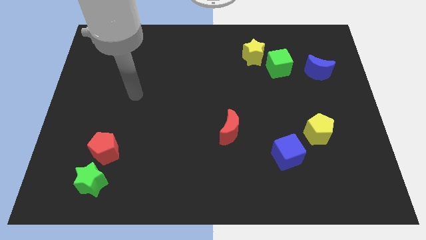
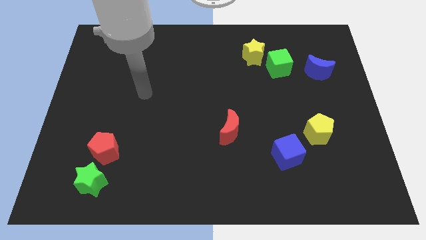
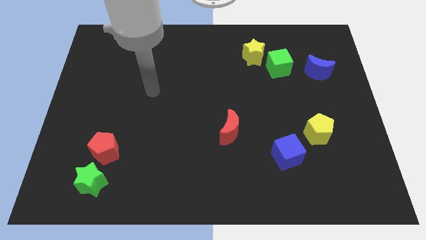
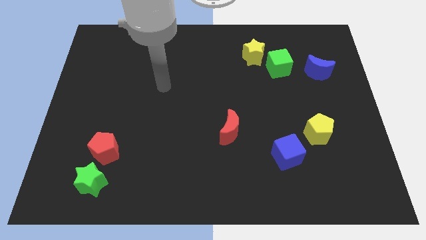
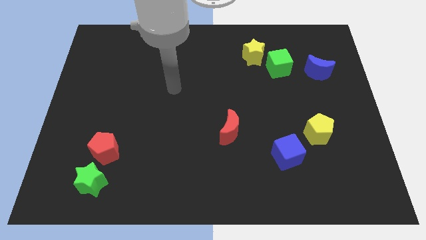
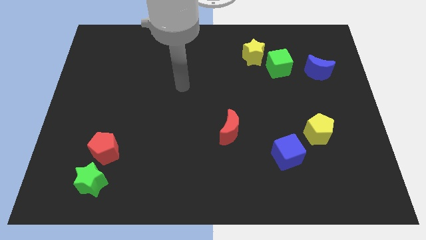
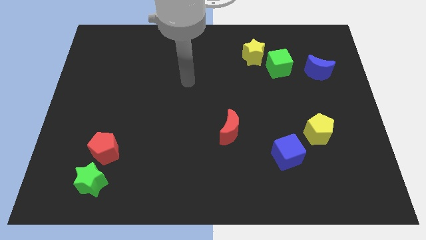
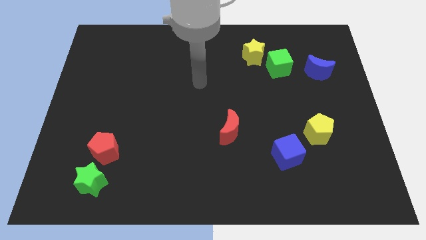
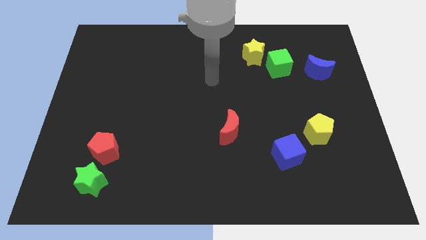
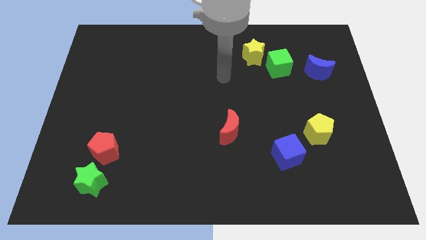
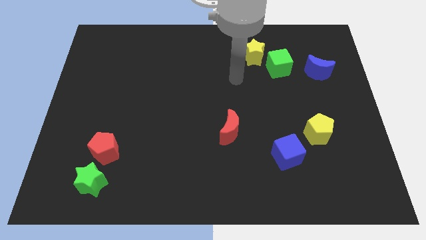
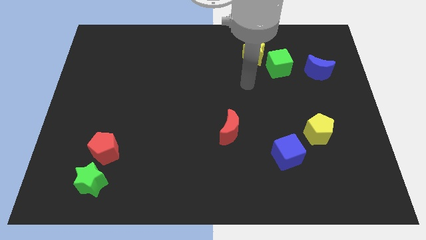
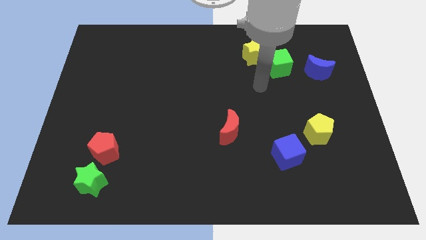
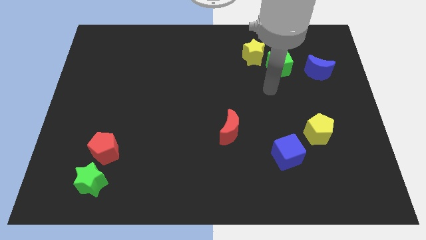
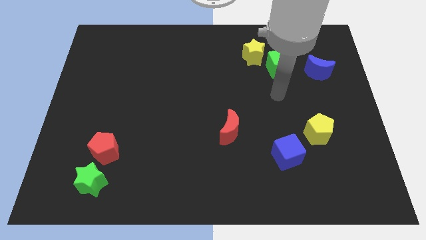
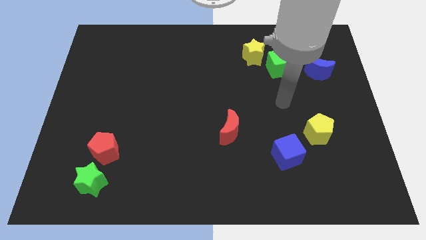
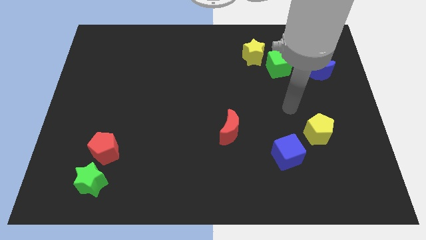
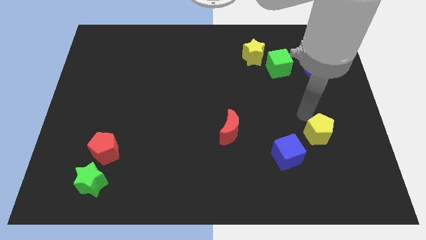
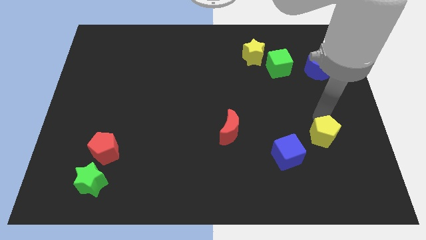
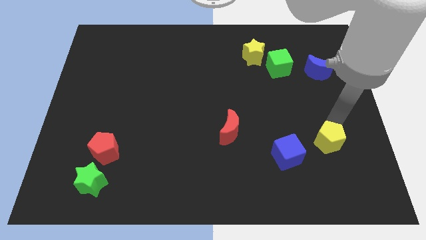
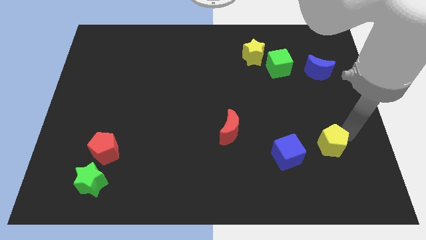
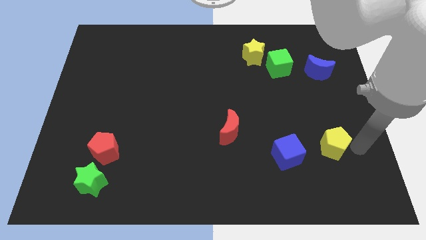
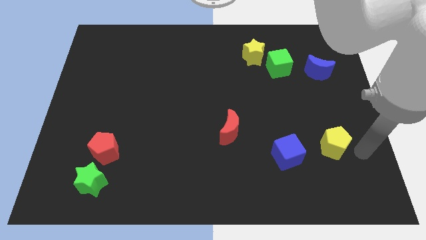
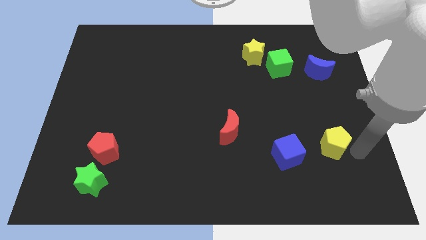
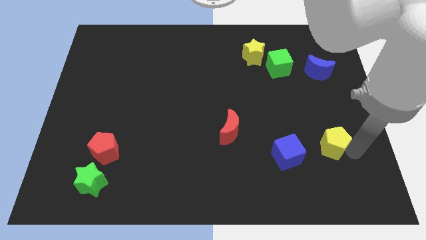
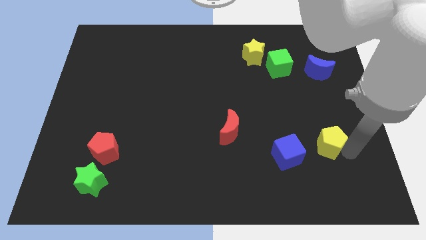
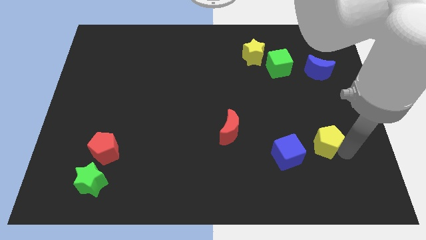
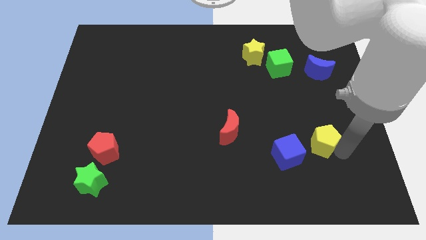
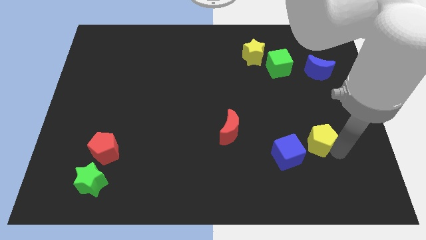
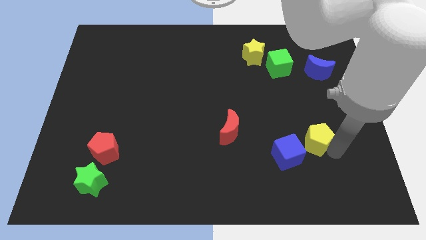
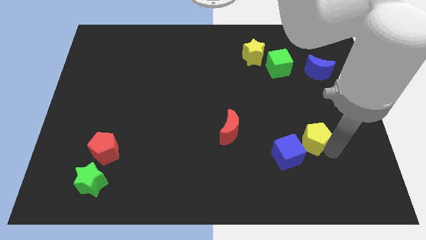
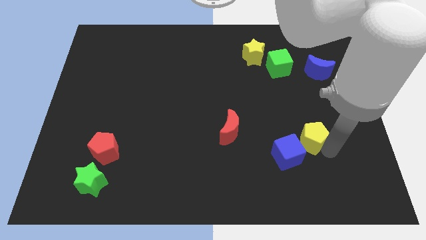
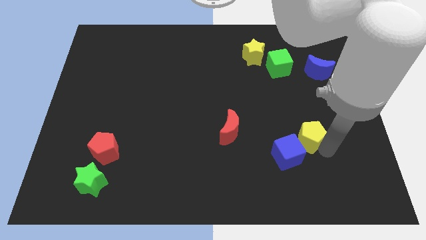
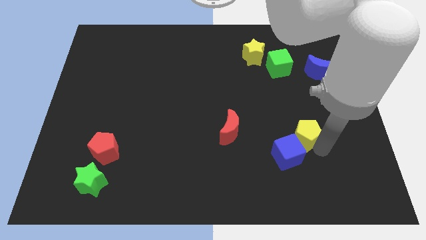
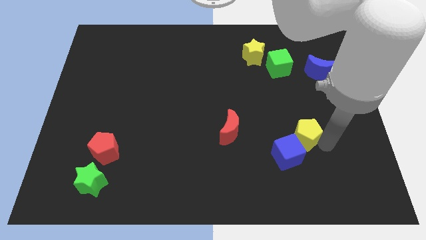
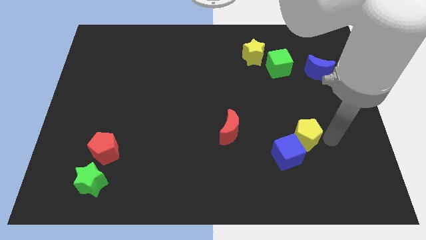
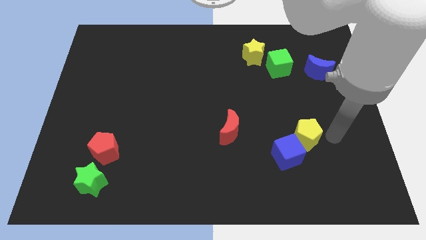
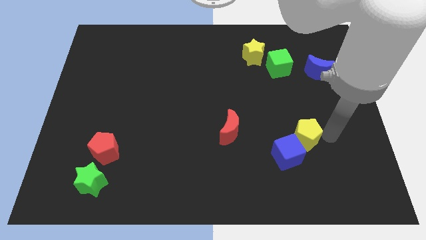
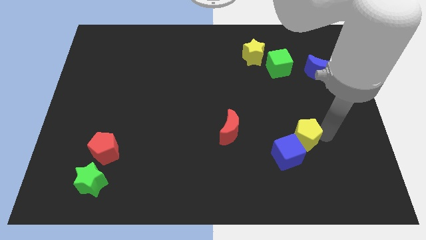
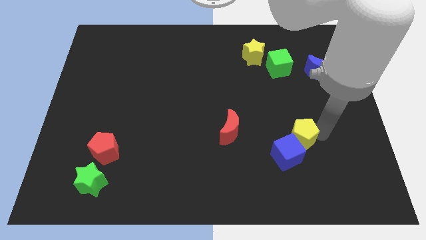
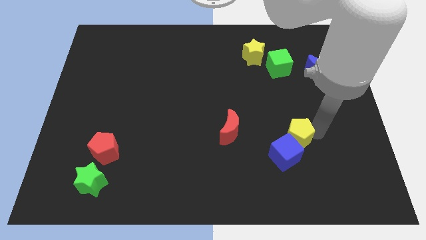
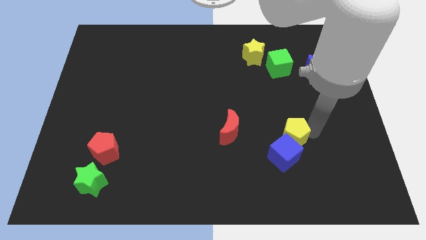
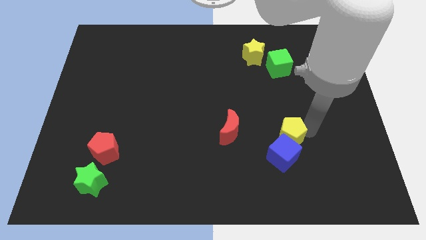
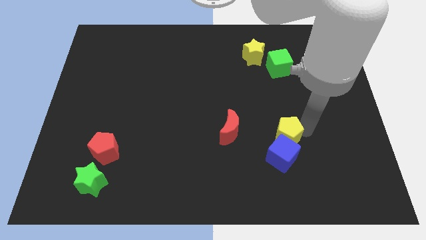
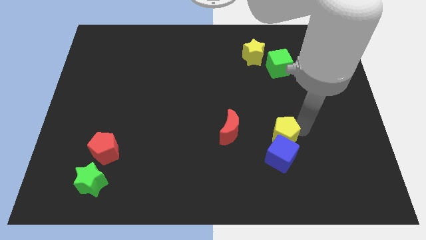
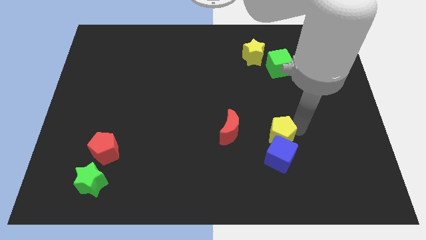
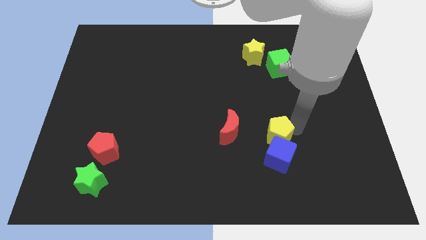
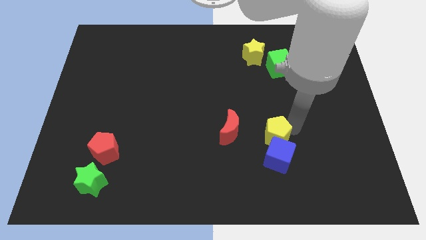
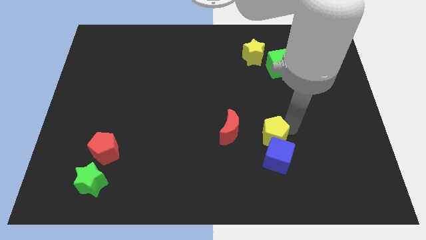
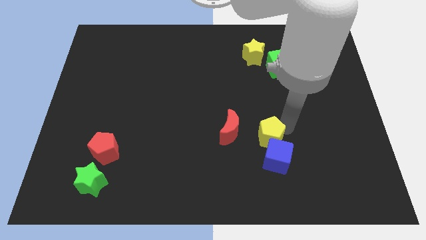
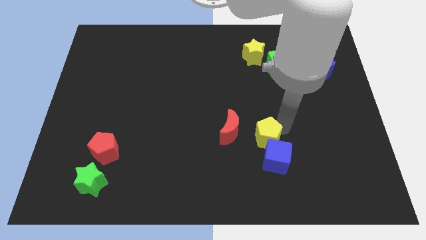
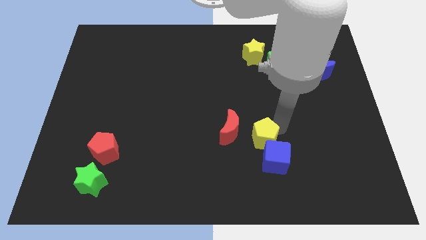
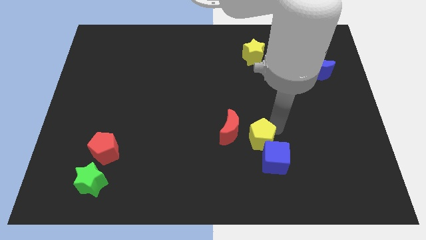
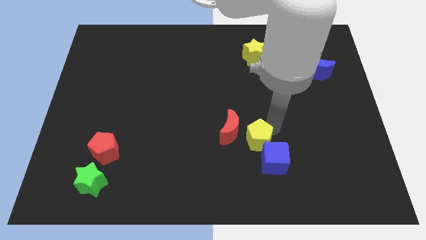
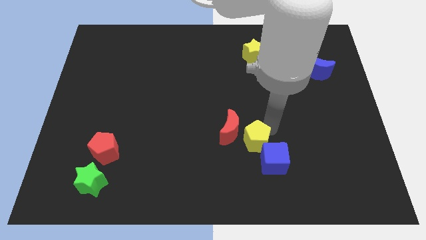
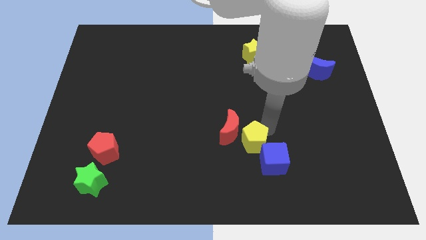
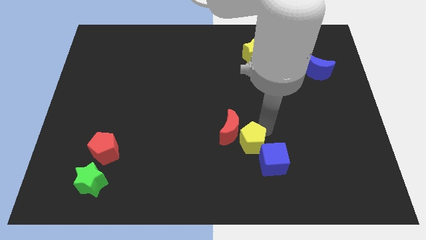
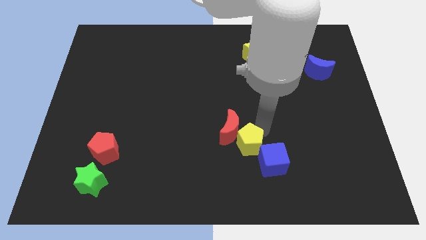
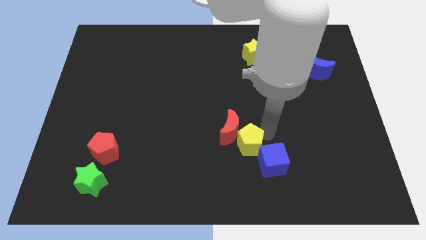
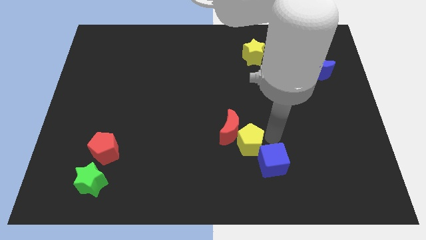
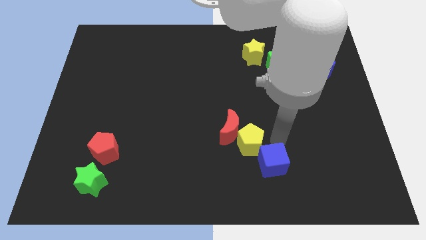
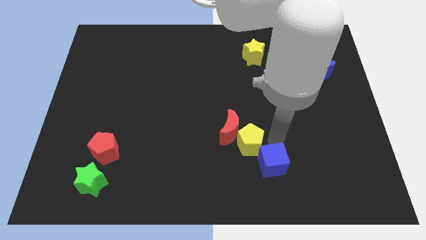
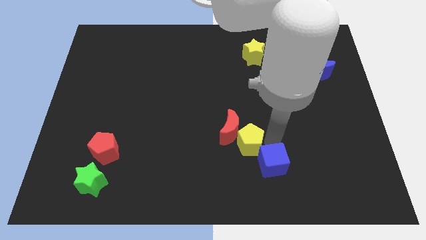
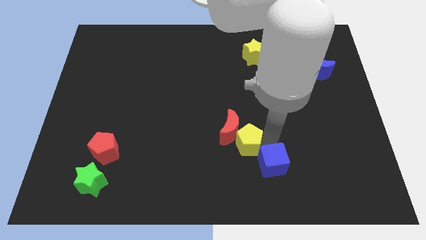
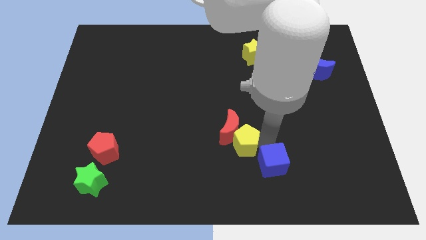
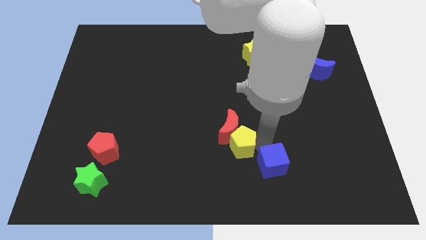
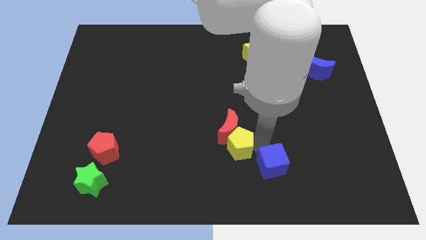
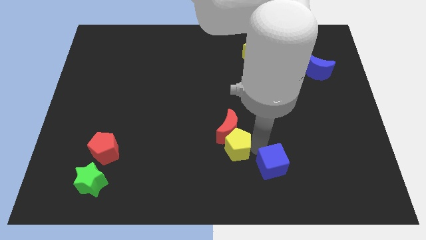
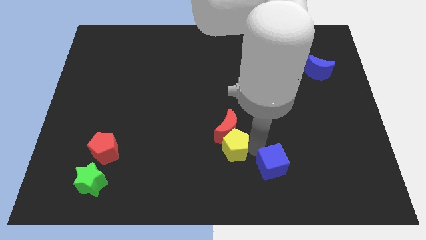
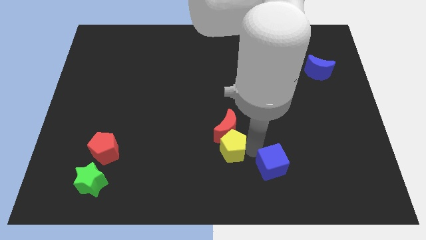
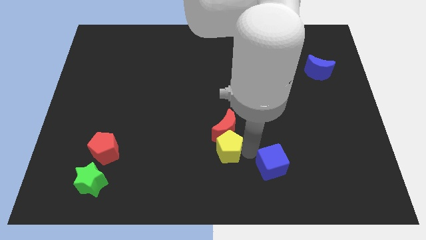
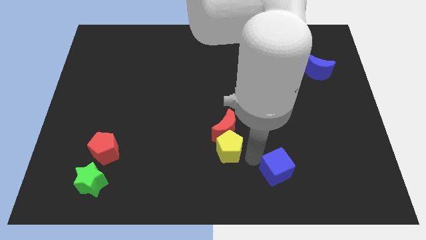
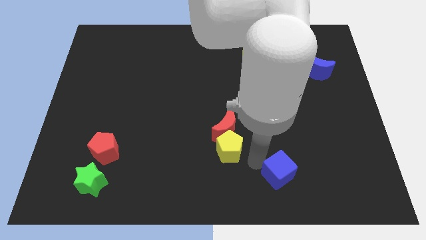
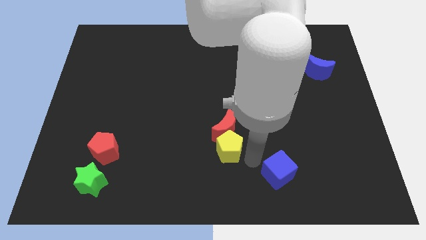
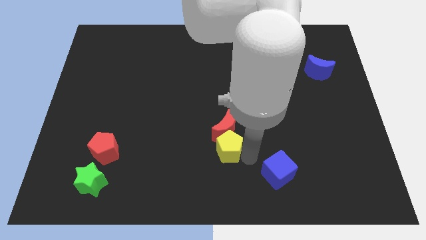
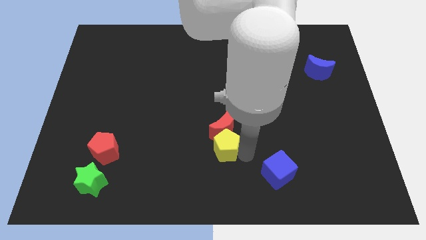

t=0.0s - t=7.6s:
push the yellow pentagon left

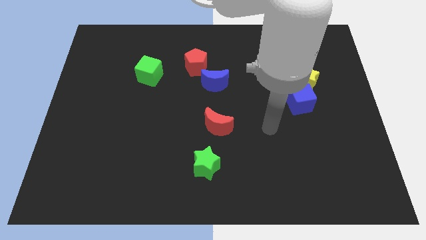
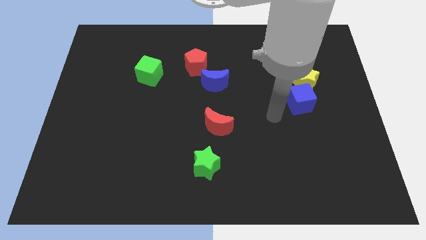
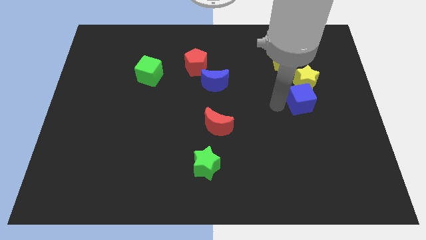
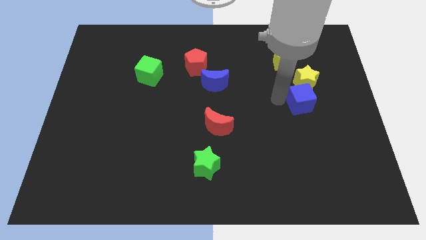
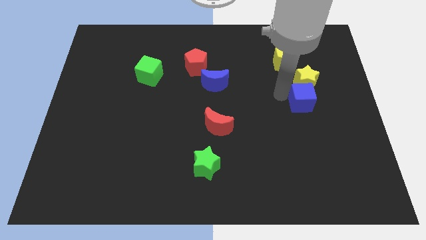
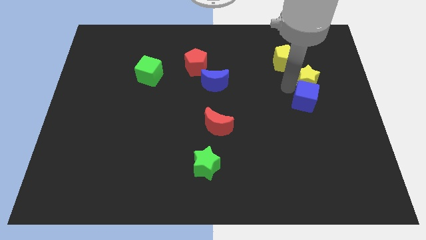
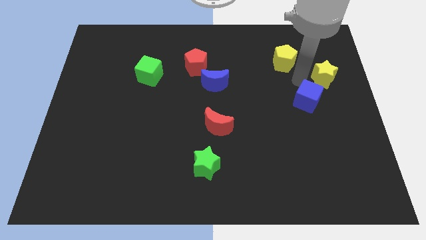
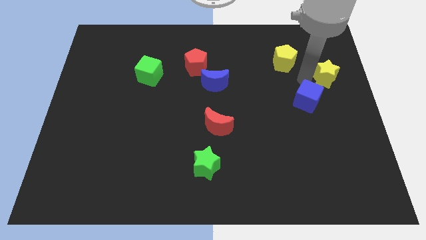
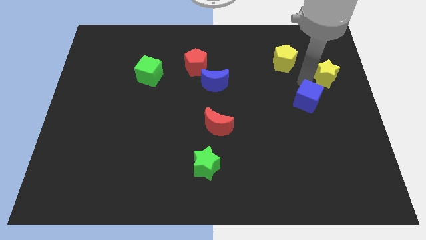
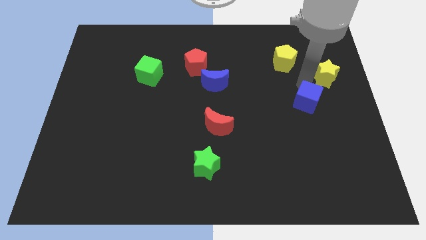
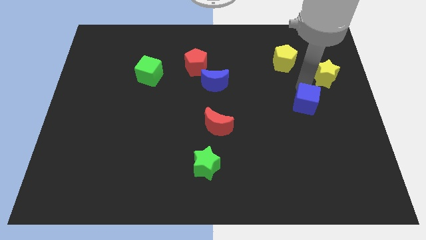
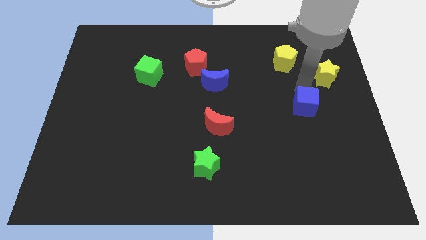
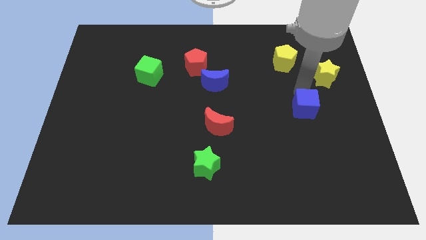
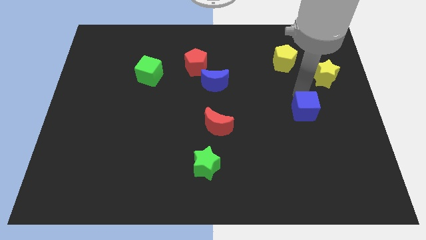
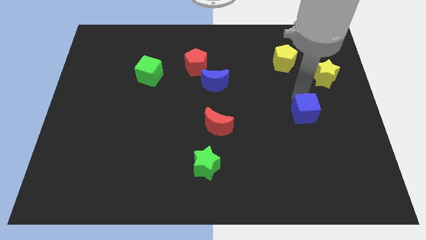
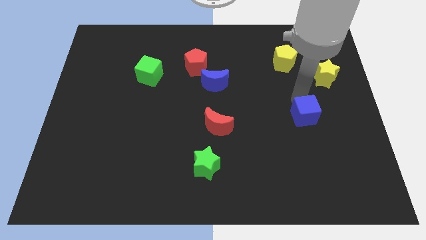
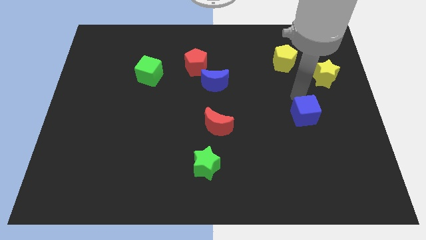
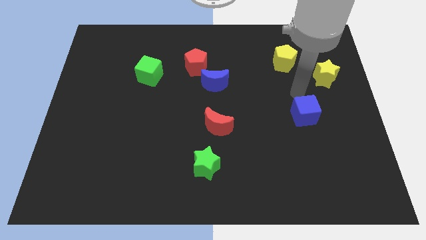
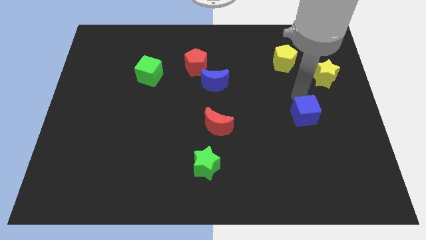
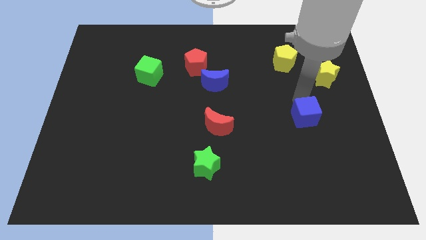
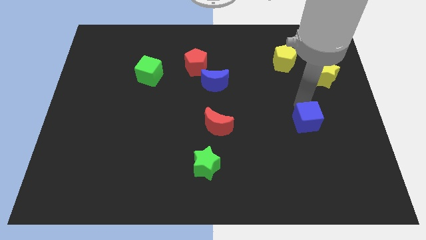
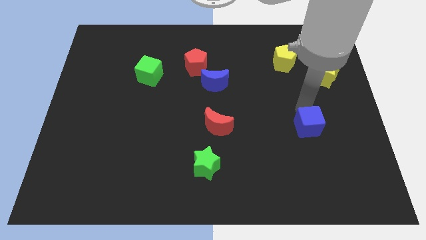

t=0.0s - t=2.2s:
slide the blue cube down slightly
